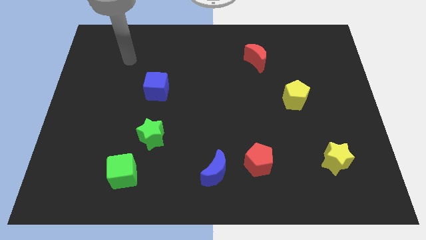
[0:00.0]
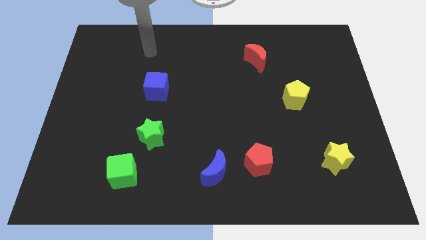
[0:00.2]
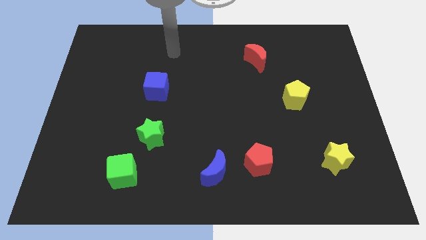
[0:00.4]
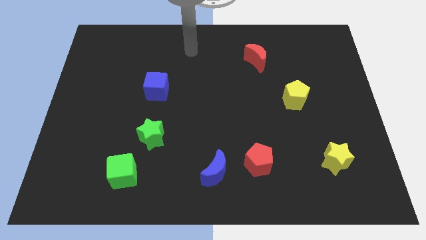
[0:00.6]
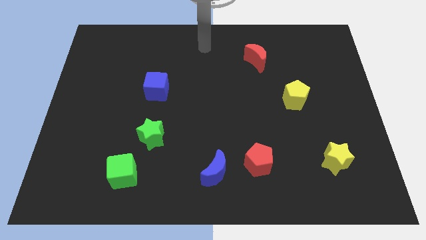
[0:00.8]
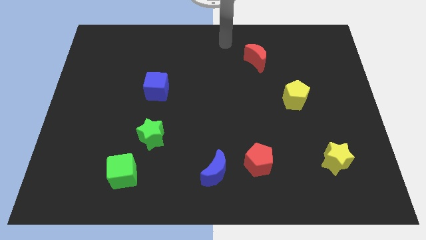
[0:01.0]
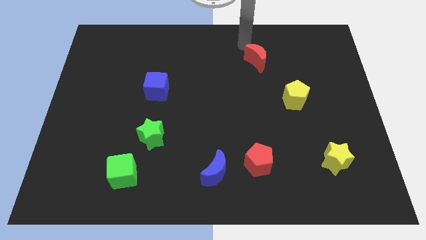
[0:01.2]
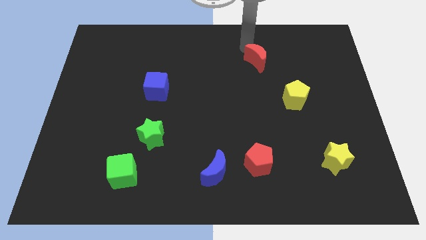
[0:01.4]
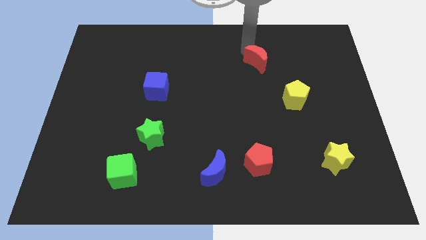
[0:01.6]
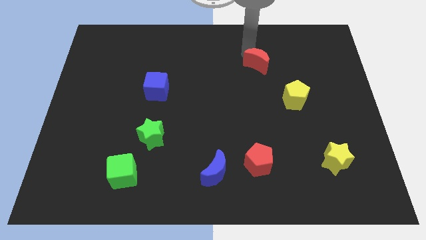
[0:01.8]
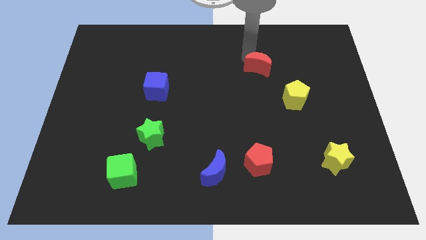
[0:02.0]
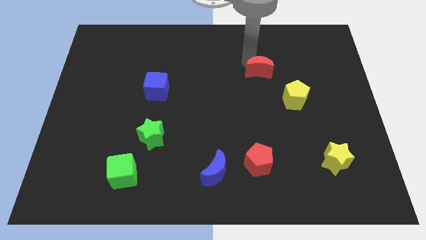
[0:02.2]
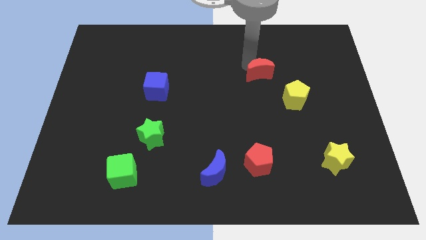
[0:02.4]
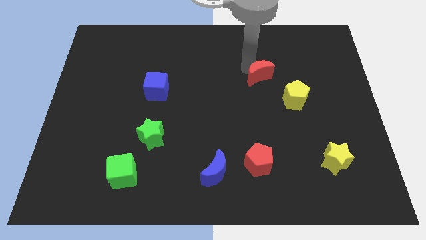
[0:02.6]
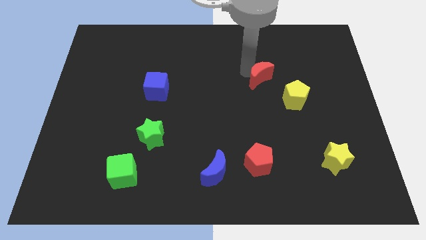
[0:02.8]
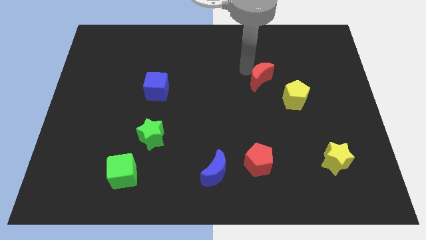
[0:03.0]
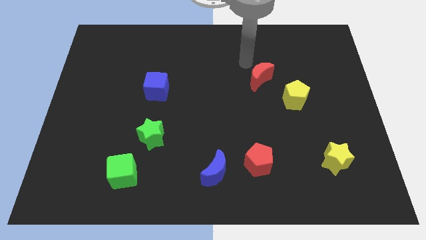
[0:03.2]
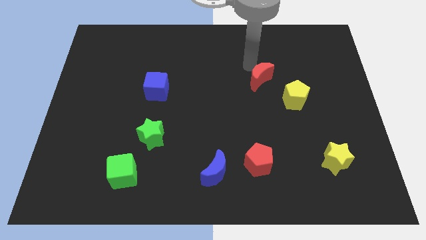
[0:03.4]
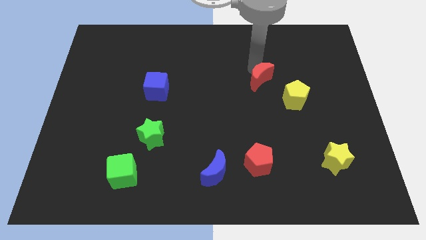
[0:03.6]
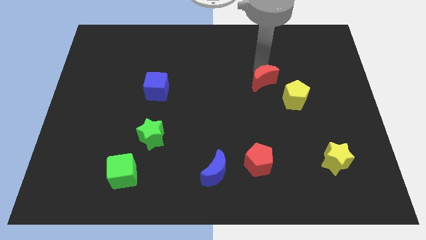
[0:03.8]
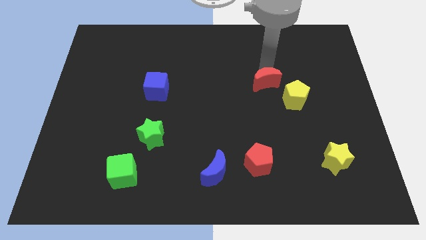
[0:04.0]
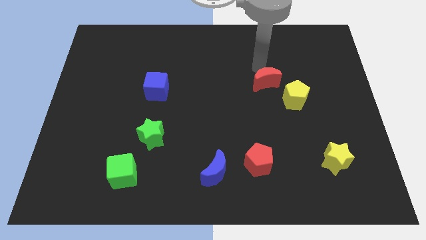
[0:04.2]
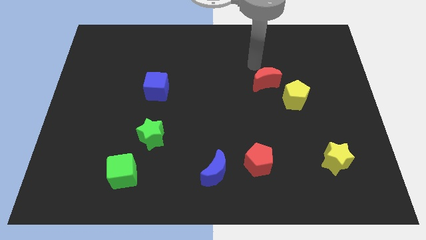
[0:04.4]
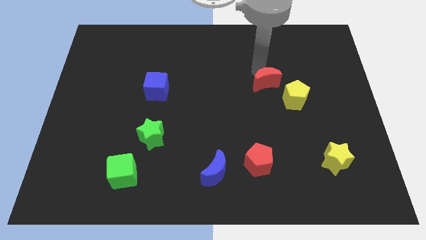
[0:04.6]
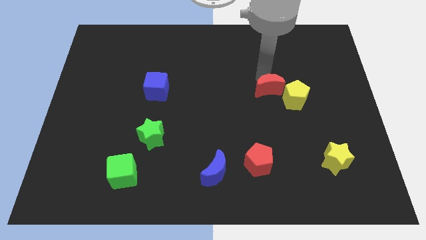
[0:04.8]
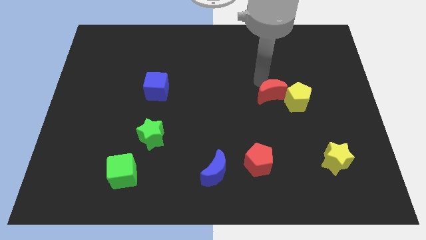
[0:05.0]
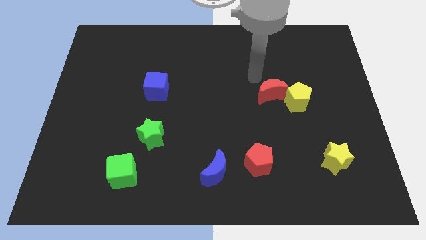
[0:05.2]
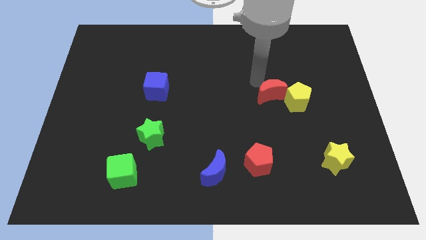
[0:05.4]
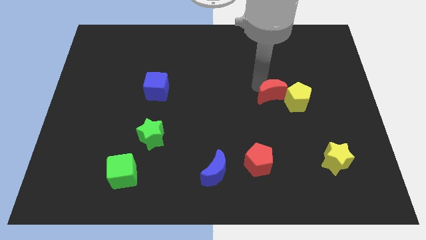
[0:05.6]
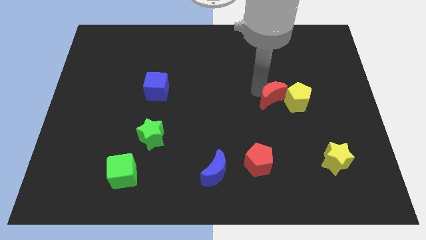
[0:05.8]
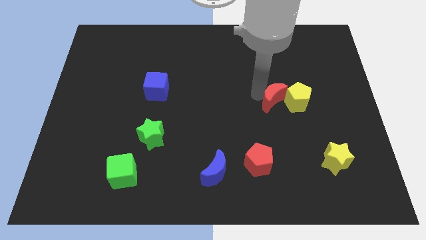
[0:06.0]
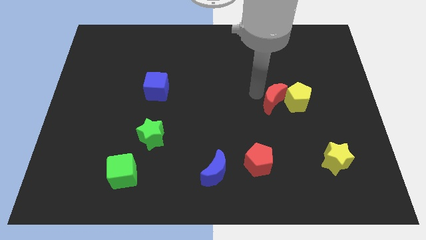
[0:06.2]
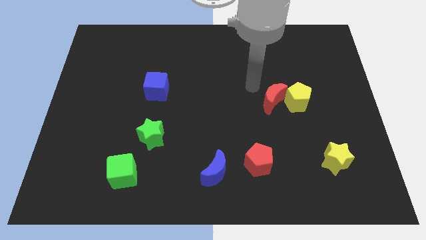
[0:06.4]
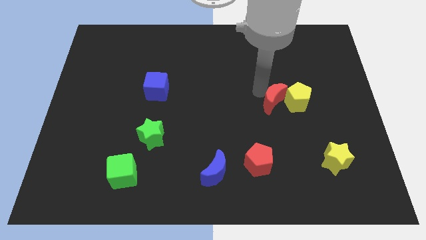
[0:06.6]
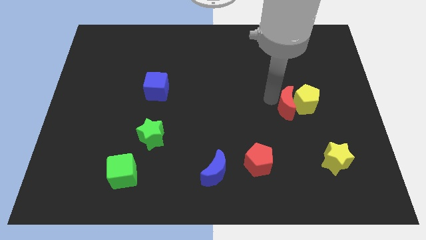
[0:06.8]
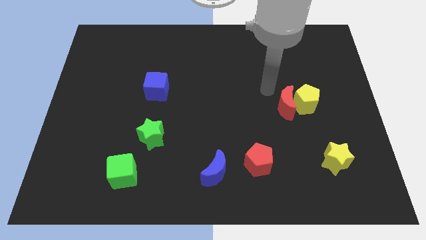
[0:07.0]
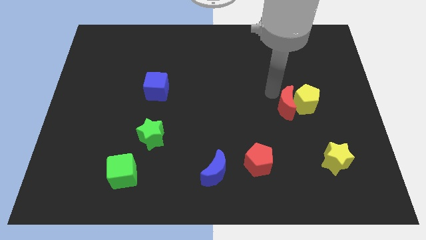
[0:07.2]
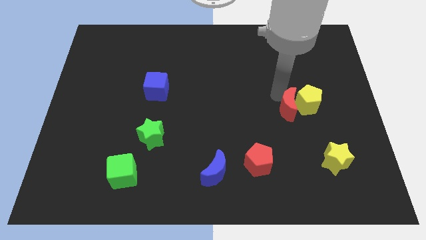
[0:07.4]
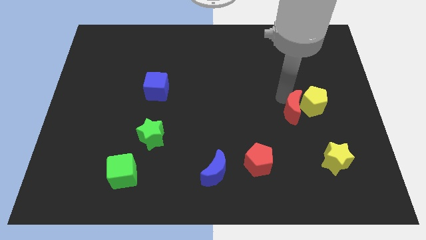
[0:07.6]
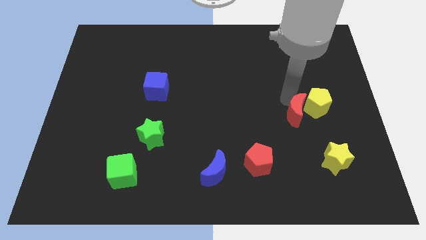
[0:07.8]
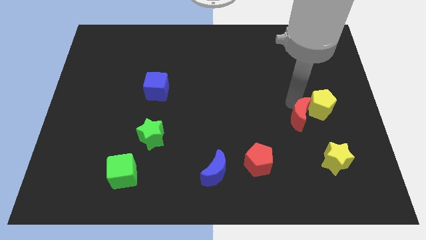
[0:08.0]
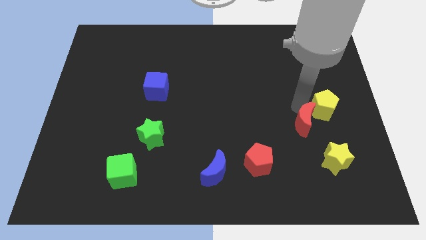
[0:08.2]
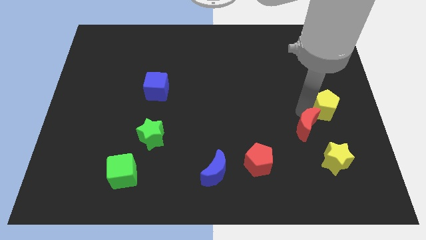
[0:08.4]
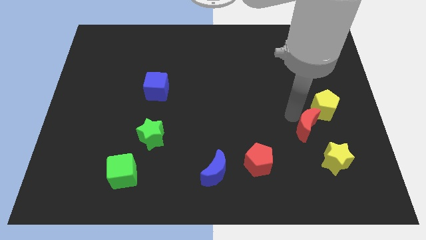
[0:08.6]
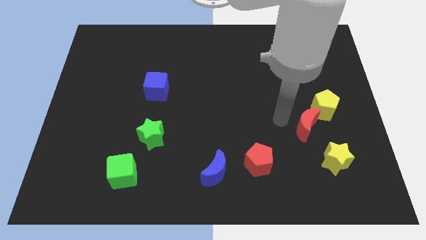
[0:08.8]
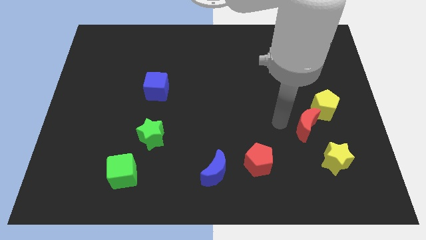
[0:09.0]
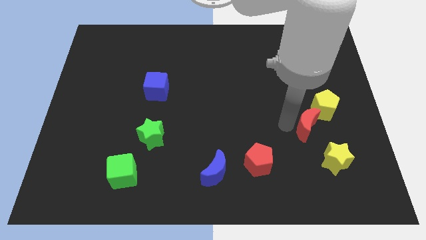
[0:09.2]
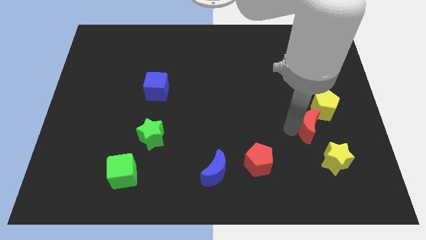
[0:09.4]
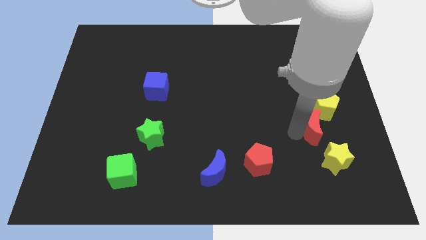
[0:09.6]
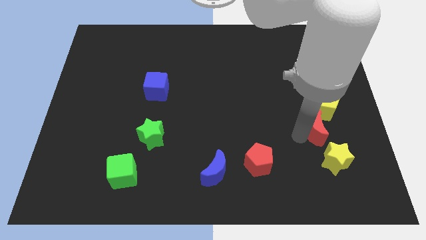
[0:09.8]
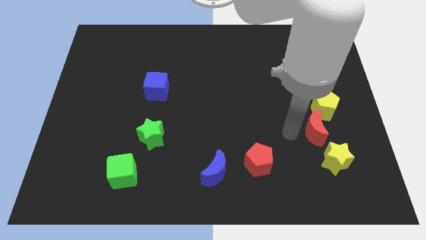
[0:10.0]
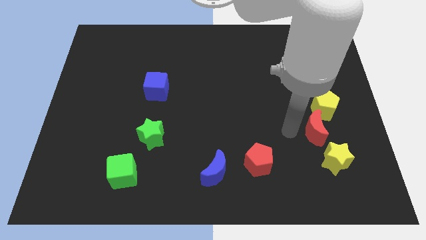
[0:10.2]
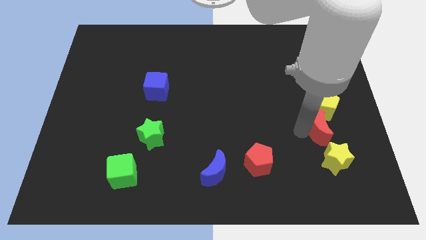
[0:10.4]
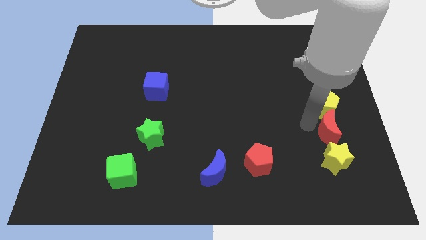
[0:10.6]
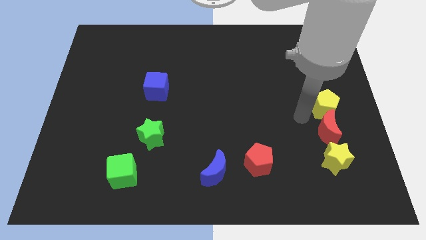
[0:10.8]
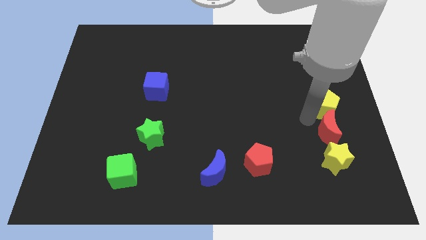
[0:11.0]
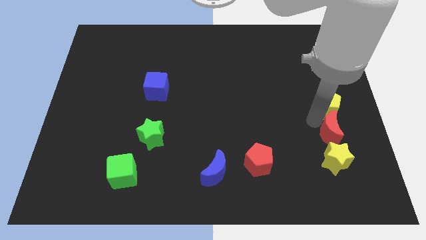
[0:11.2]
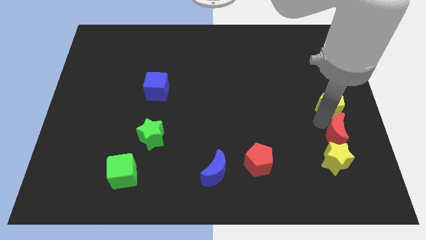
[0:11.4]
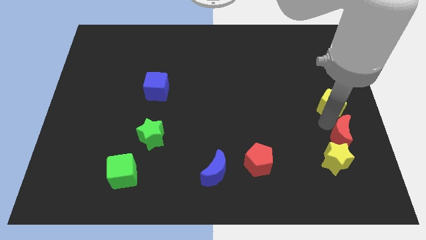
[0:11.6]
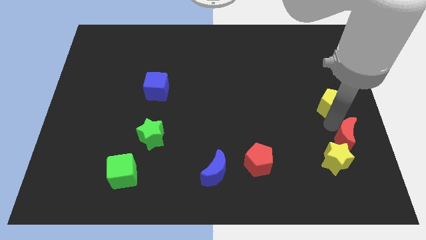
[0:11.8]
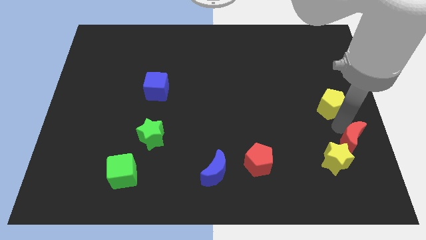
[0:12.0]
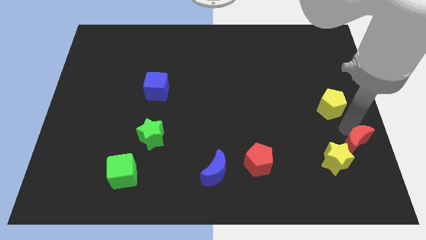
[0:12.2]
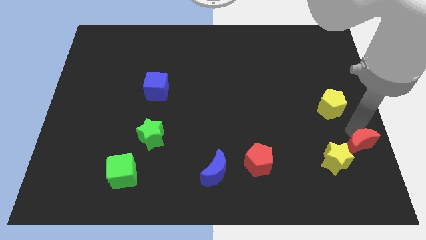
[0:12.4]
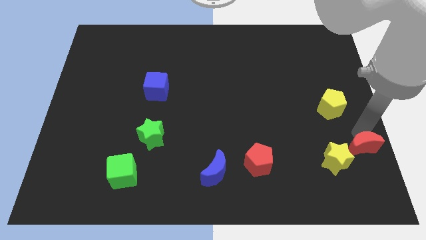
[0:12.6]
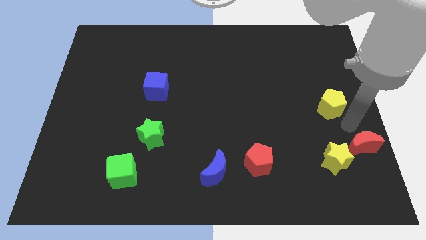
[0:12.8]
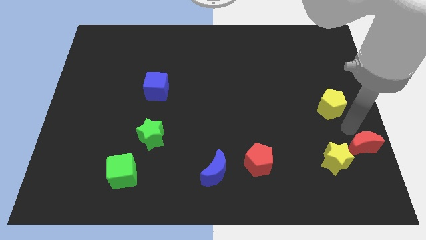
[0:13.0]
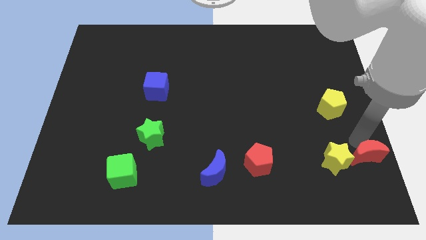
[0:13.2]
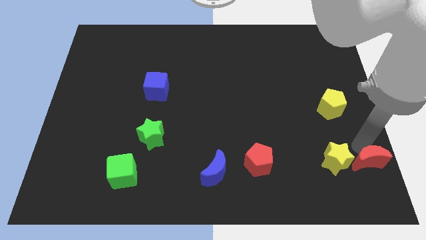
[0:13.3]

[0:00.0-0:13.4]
move the red moon to the bottom right corner
